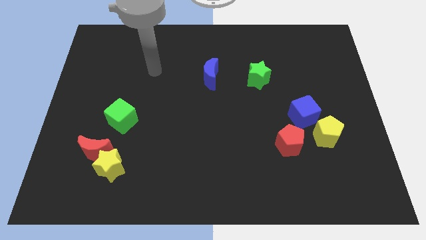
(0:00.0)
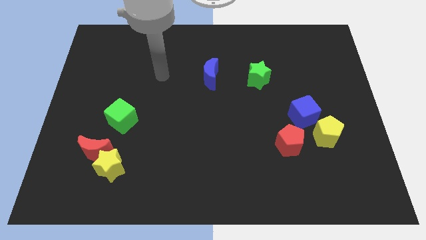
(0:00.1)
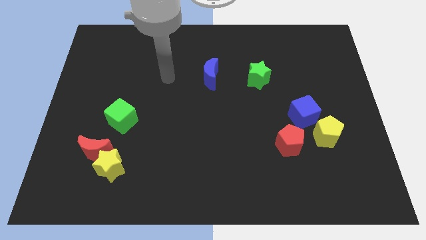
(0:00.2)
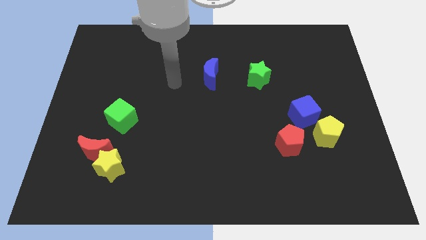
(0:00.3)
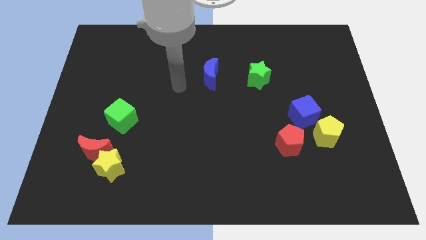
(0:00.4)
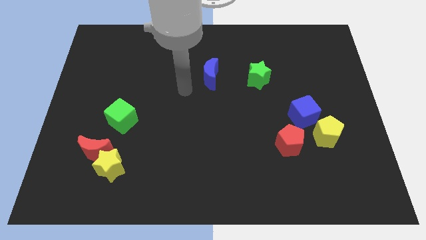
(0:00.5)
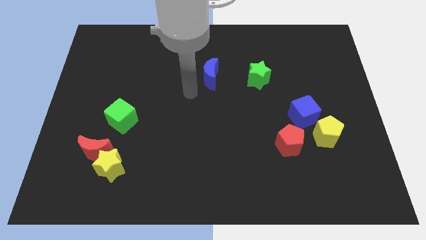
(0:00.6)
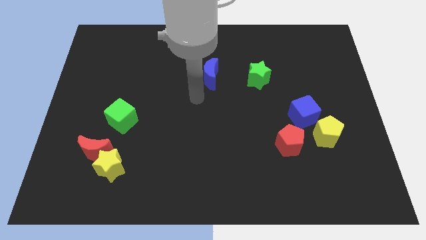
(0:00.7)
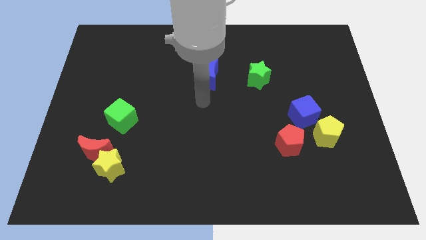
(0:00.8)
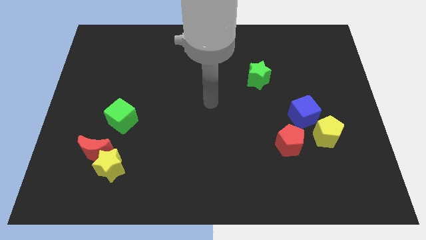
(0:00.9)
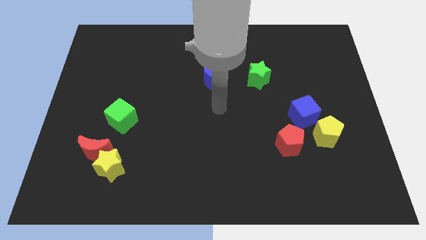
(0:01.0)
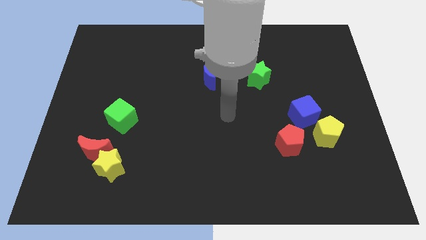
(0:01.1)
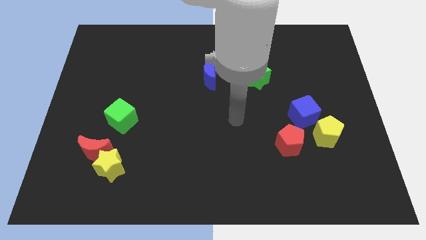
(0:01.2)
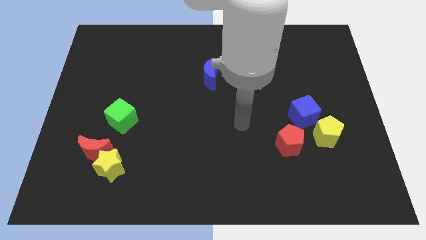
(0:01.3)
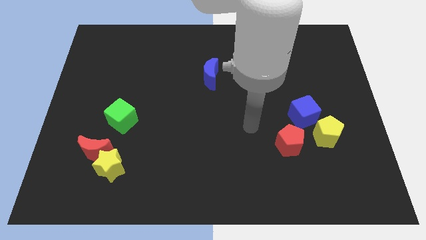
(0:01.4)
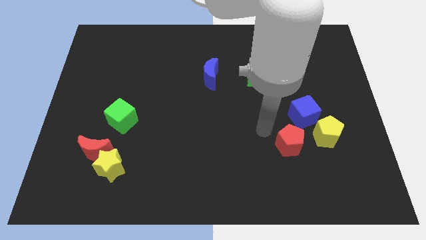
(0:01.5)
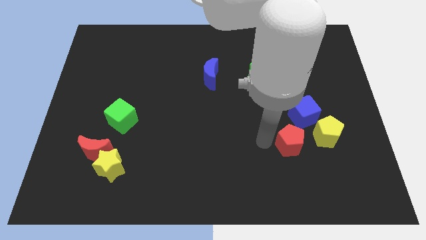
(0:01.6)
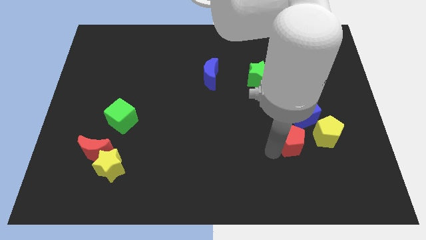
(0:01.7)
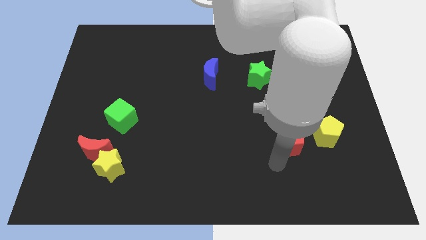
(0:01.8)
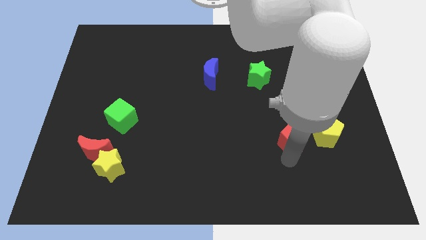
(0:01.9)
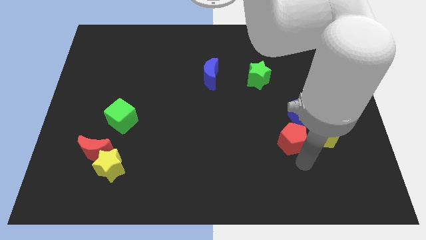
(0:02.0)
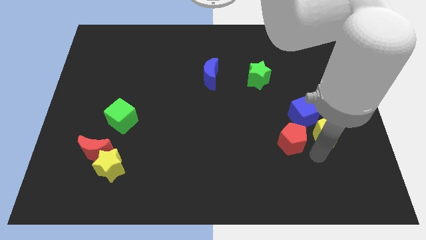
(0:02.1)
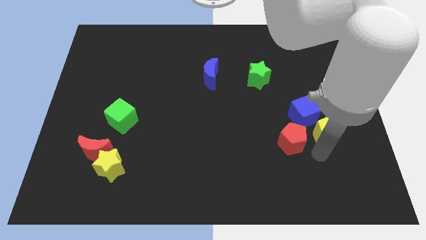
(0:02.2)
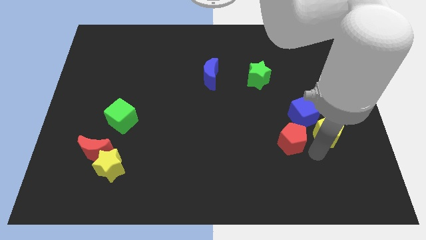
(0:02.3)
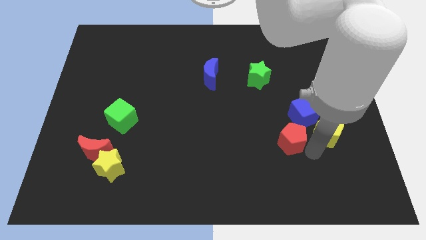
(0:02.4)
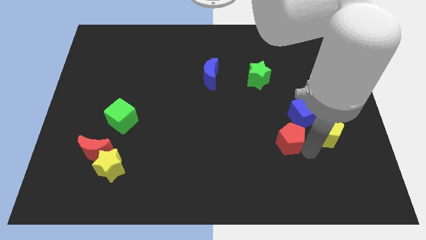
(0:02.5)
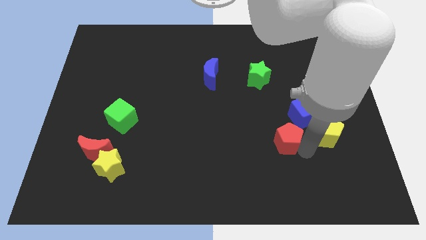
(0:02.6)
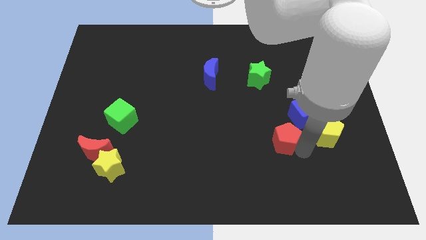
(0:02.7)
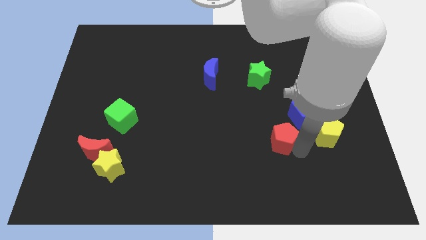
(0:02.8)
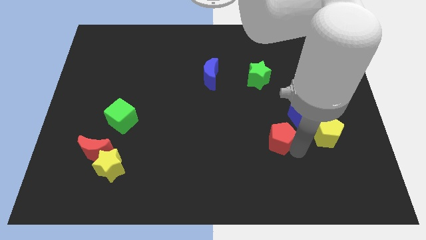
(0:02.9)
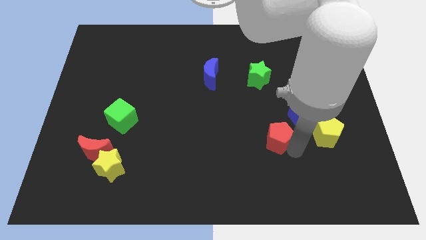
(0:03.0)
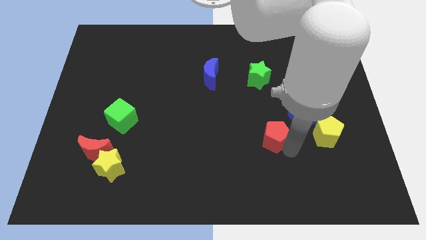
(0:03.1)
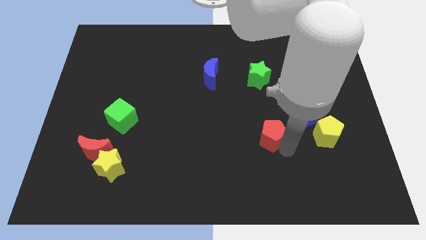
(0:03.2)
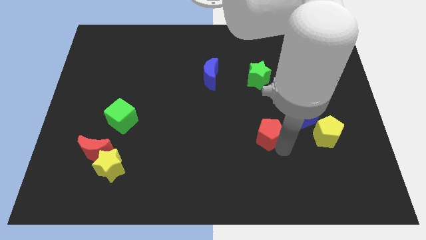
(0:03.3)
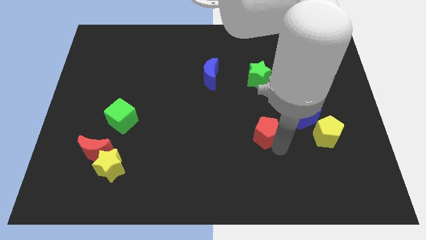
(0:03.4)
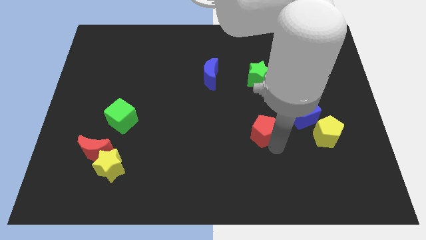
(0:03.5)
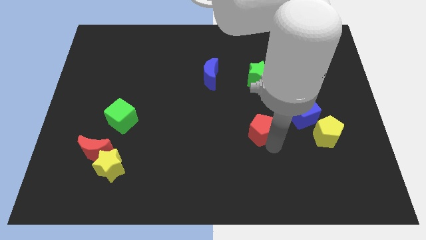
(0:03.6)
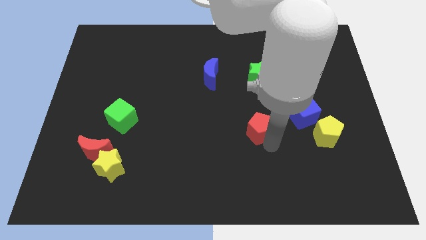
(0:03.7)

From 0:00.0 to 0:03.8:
slide the red pentagon upwards and left diagonally a little

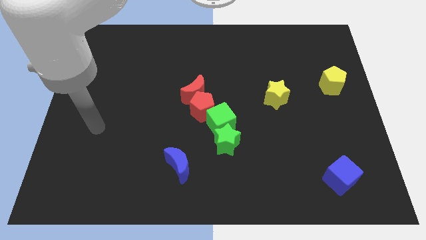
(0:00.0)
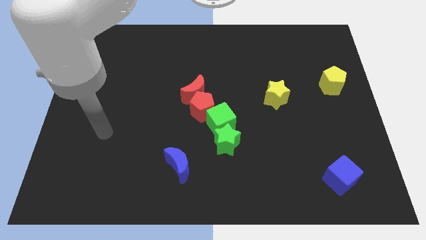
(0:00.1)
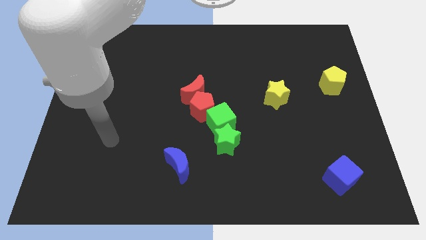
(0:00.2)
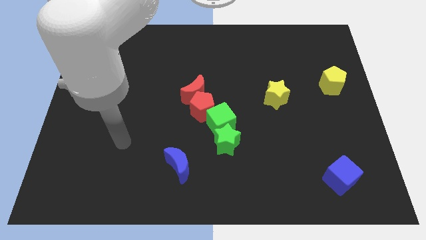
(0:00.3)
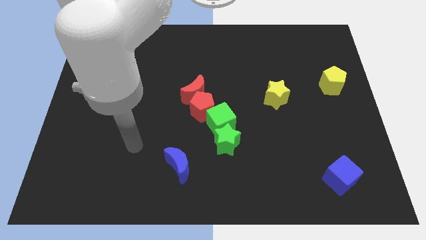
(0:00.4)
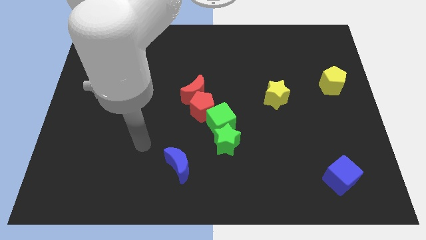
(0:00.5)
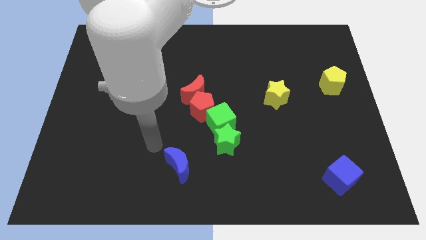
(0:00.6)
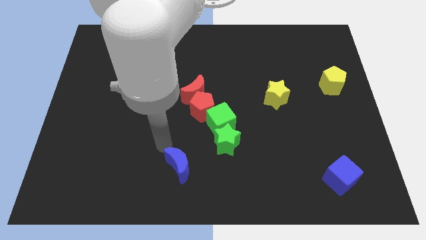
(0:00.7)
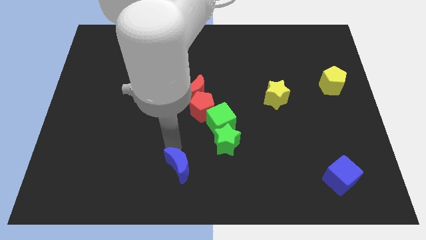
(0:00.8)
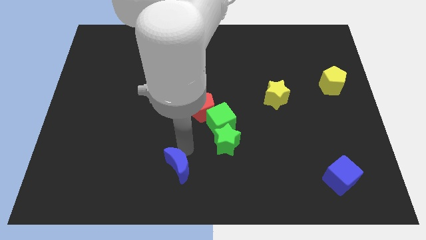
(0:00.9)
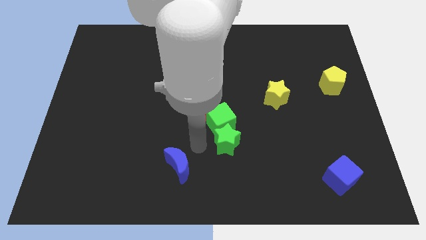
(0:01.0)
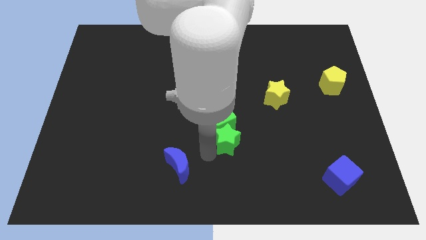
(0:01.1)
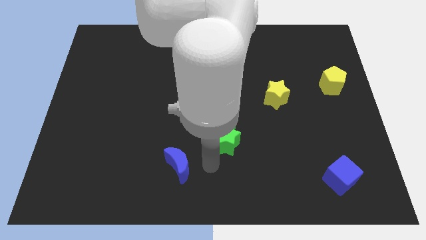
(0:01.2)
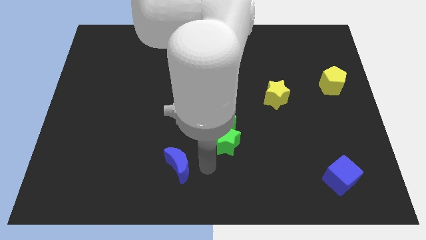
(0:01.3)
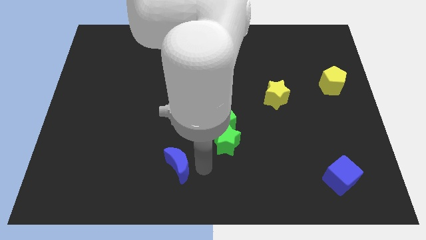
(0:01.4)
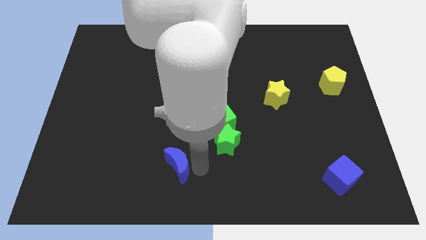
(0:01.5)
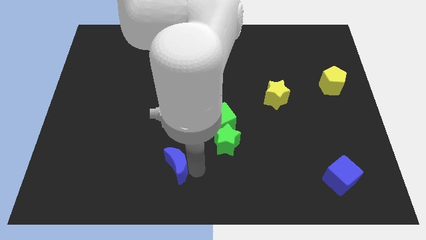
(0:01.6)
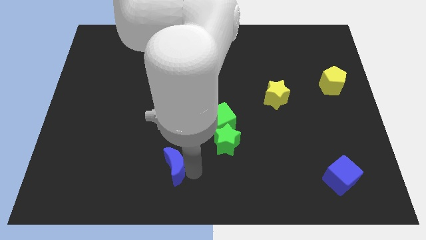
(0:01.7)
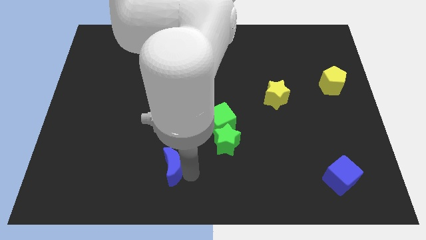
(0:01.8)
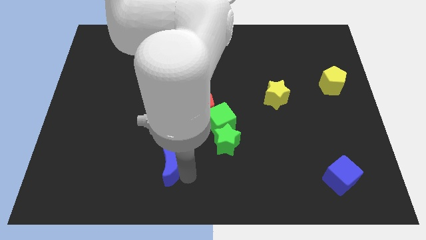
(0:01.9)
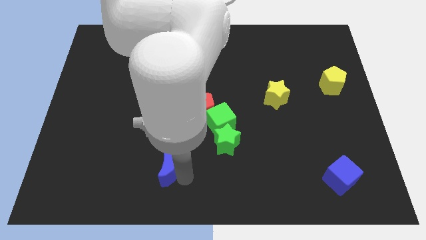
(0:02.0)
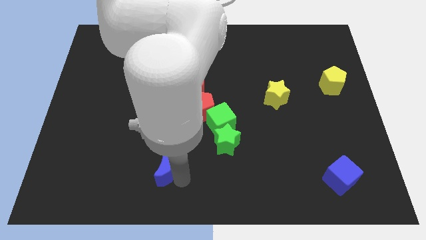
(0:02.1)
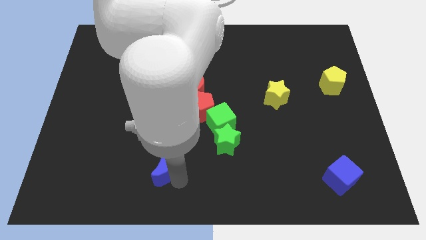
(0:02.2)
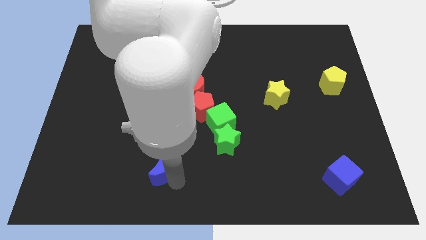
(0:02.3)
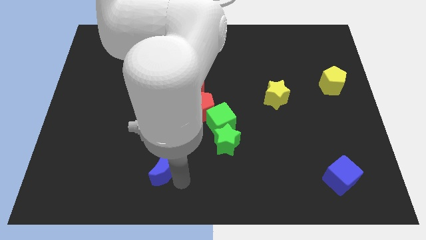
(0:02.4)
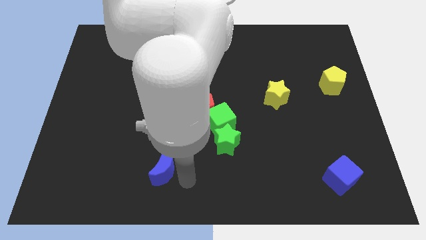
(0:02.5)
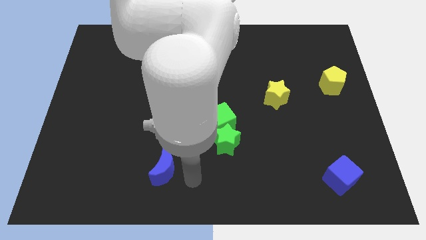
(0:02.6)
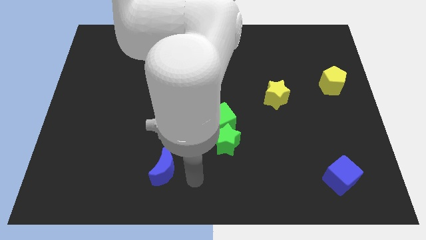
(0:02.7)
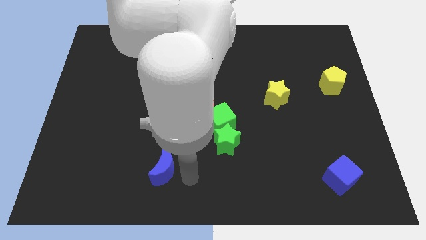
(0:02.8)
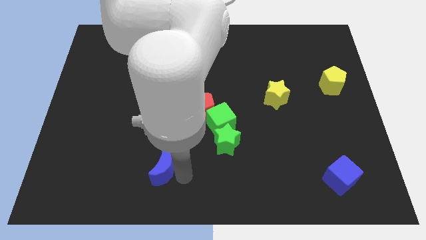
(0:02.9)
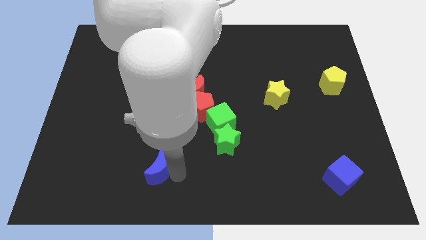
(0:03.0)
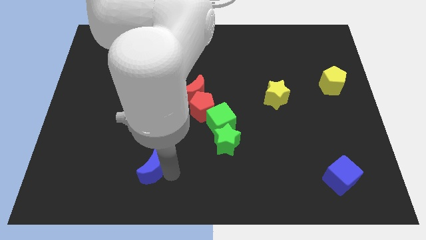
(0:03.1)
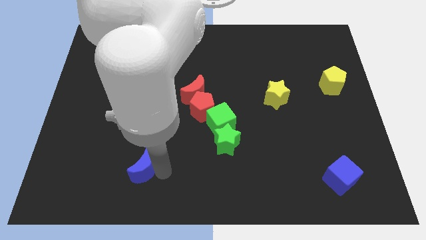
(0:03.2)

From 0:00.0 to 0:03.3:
slide the blue moon a bit left

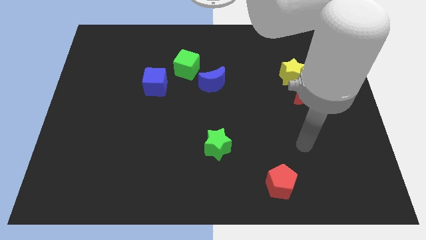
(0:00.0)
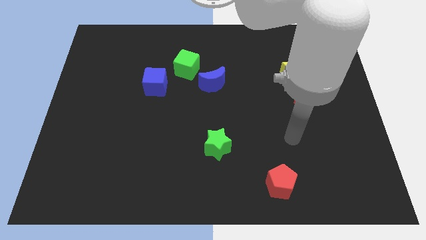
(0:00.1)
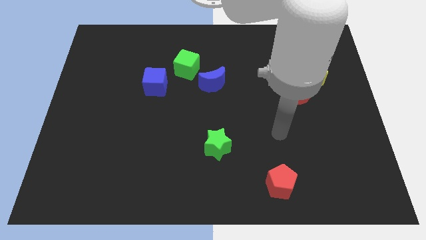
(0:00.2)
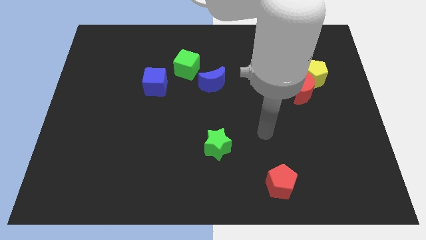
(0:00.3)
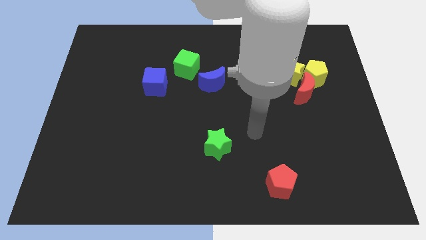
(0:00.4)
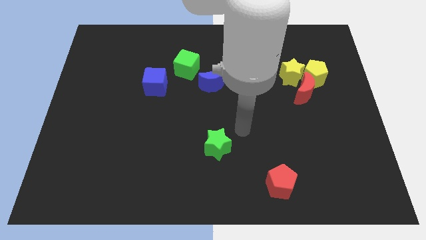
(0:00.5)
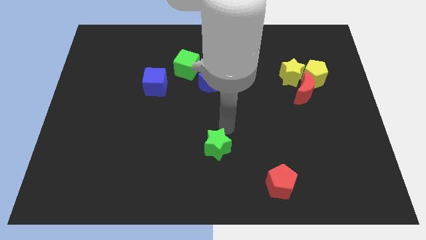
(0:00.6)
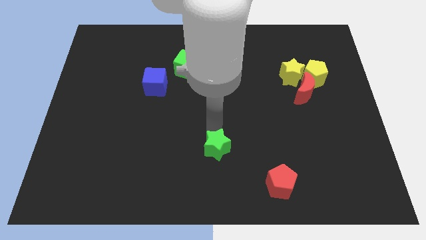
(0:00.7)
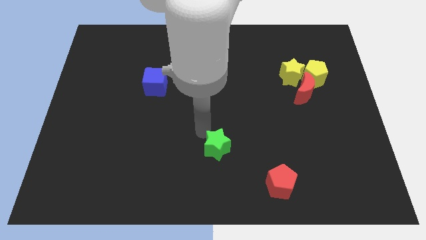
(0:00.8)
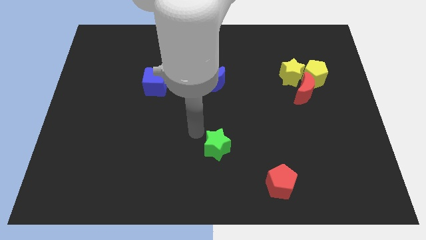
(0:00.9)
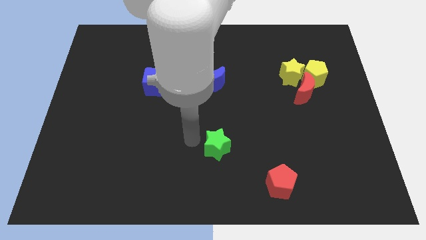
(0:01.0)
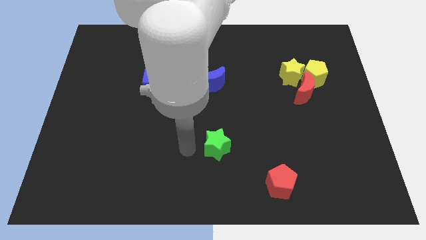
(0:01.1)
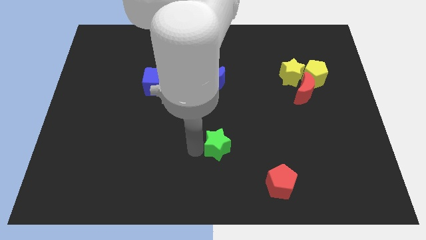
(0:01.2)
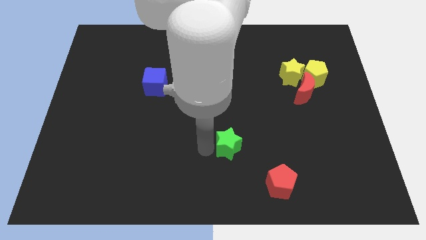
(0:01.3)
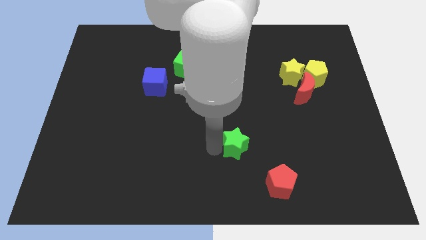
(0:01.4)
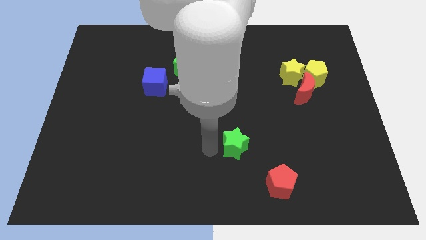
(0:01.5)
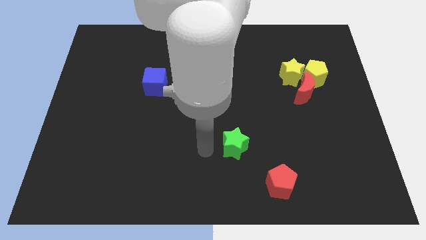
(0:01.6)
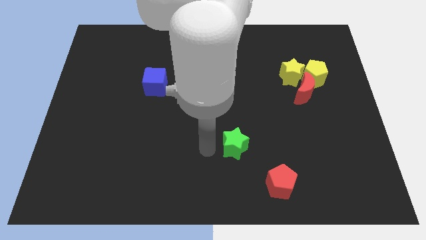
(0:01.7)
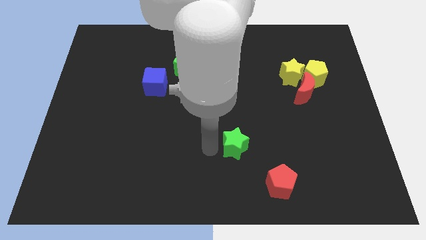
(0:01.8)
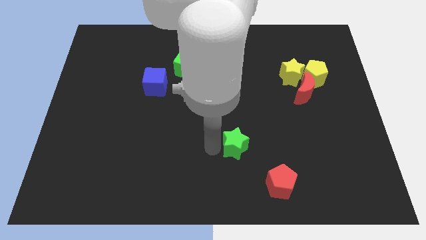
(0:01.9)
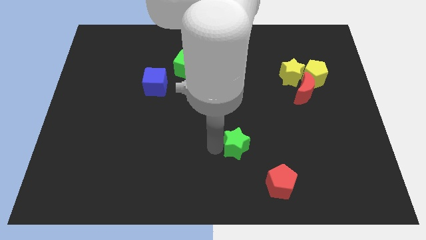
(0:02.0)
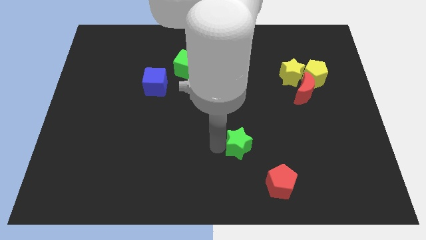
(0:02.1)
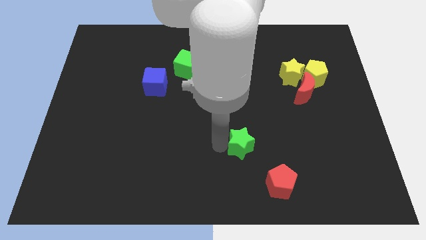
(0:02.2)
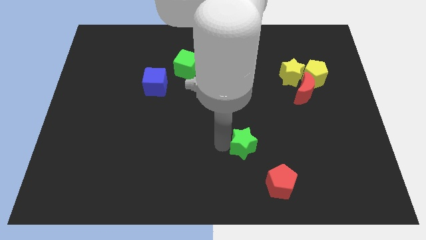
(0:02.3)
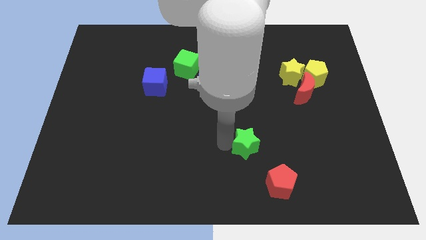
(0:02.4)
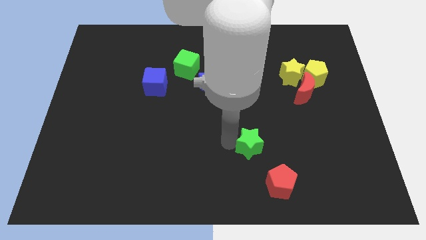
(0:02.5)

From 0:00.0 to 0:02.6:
slide the green star to the right a bit
